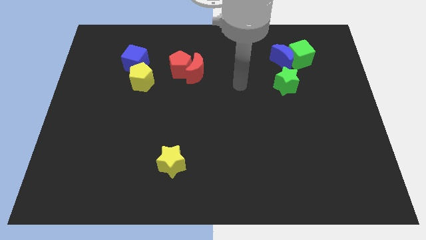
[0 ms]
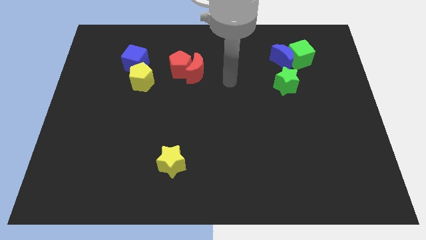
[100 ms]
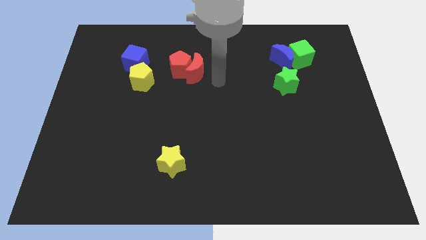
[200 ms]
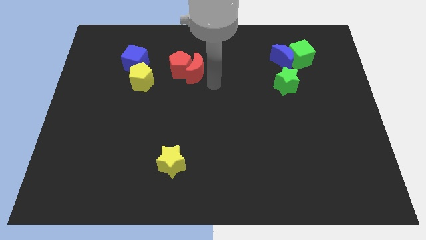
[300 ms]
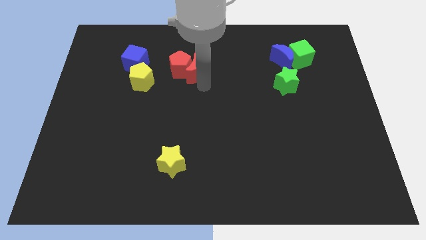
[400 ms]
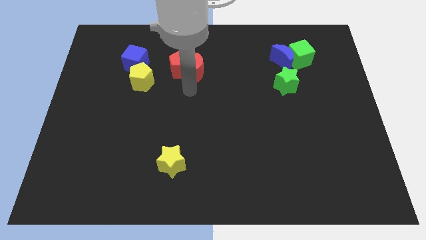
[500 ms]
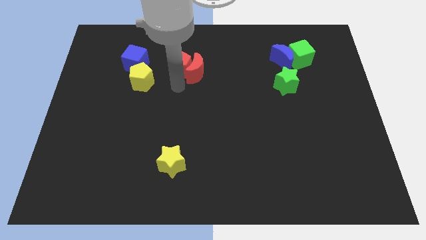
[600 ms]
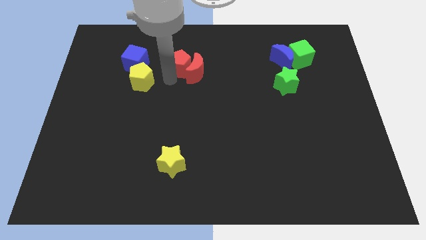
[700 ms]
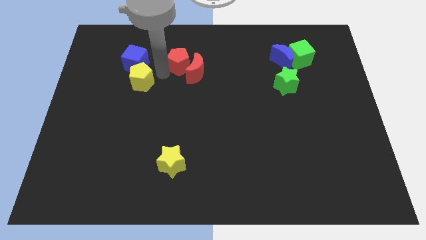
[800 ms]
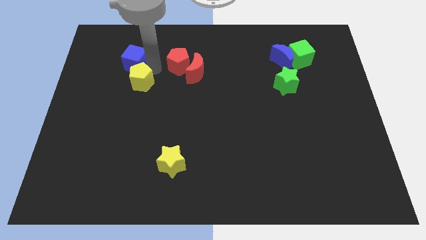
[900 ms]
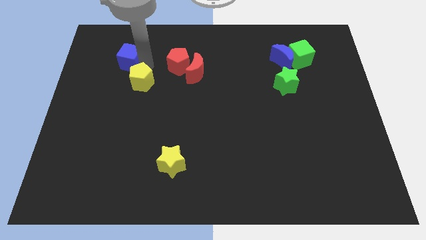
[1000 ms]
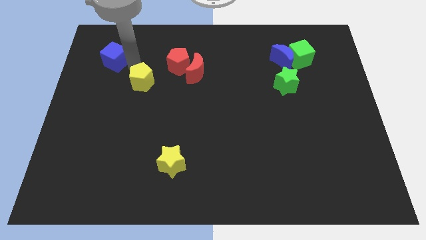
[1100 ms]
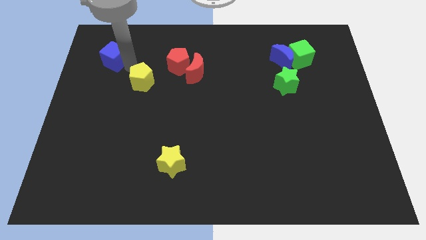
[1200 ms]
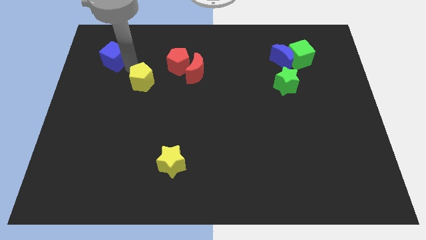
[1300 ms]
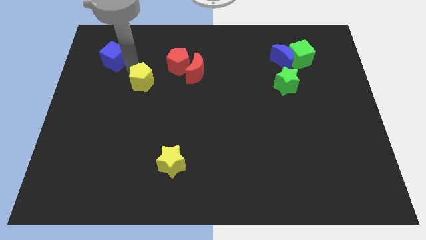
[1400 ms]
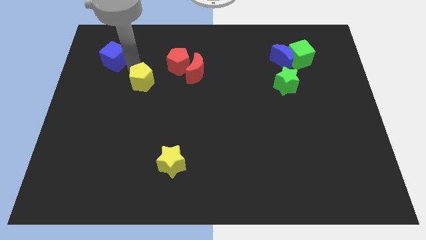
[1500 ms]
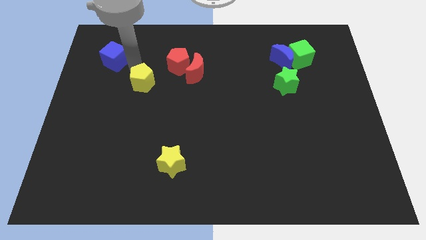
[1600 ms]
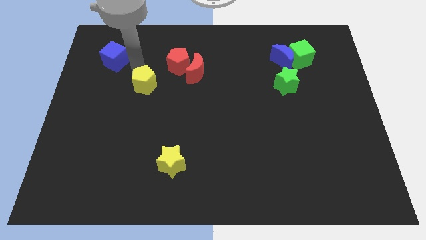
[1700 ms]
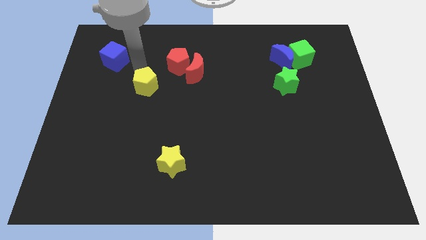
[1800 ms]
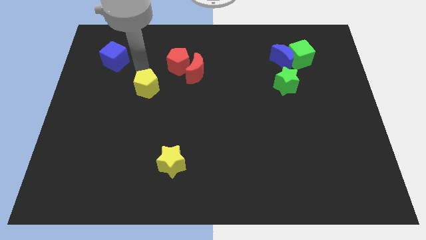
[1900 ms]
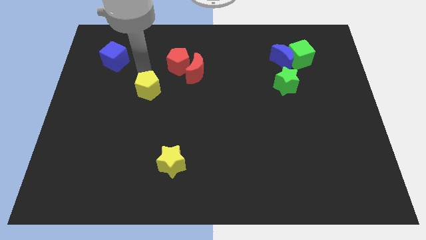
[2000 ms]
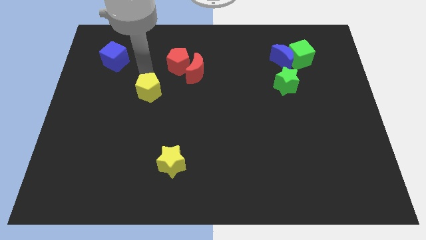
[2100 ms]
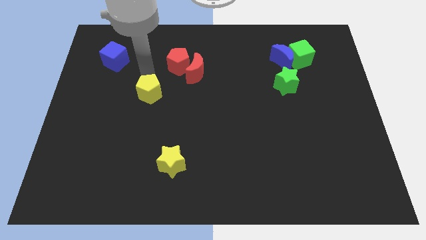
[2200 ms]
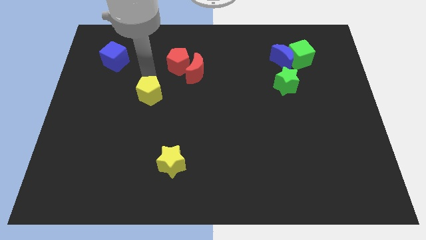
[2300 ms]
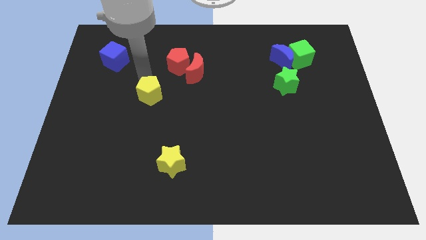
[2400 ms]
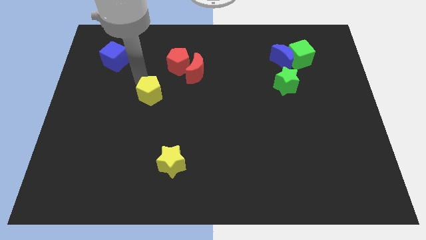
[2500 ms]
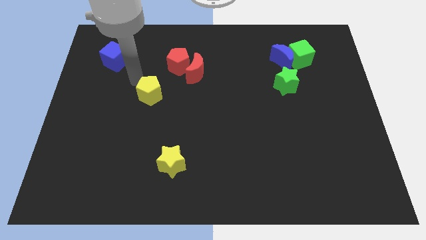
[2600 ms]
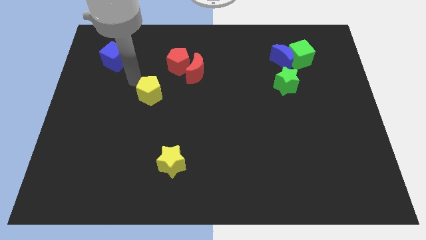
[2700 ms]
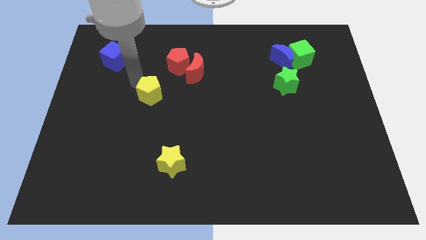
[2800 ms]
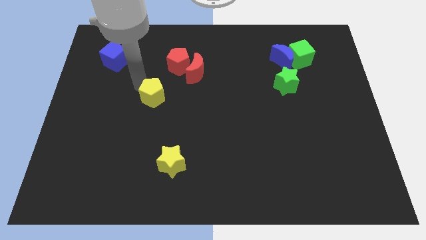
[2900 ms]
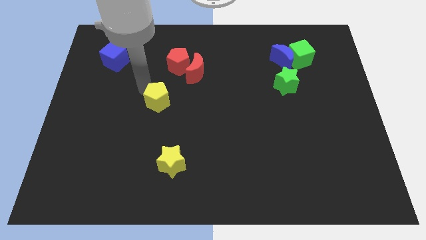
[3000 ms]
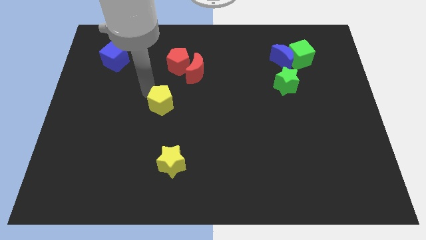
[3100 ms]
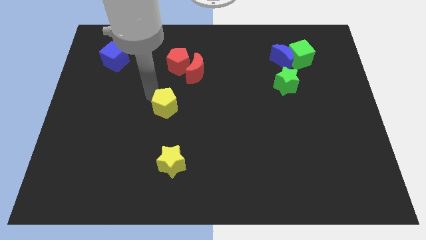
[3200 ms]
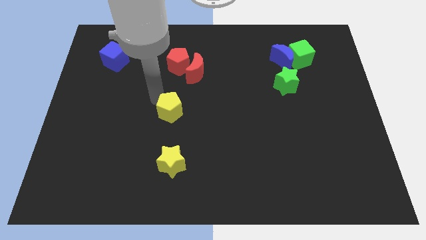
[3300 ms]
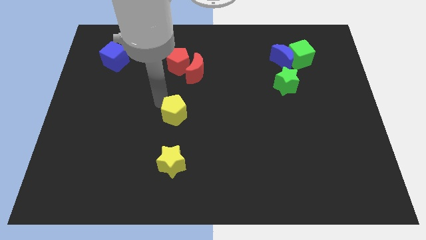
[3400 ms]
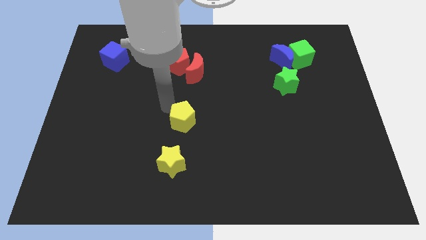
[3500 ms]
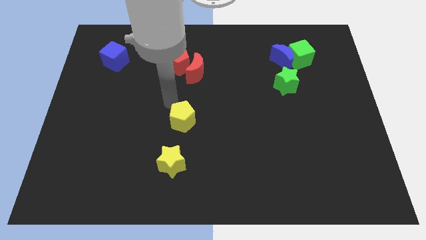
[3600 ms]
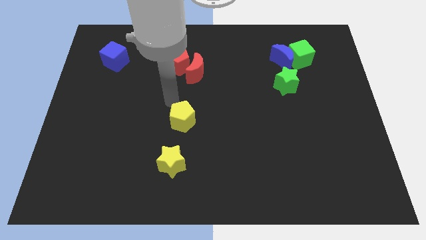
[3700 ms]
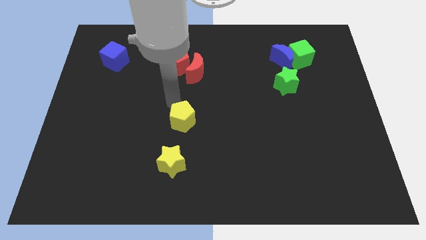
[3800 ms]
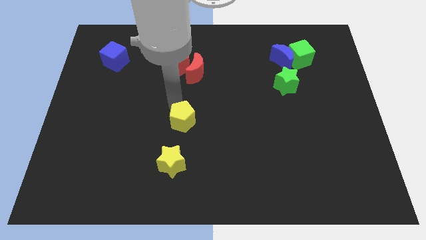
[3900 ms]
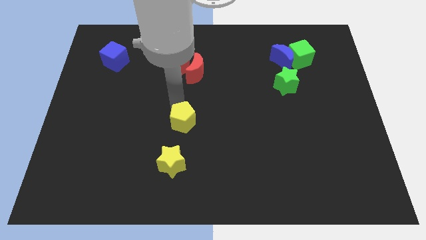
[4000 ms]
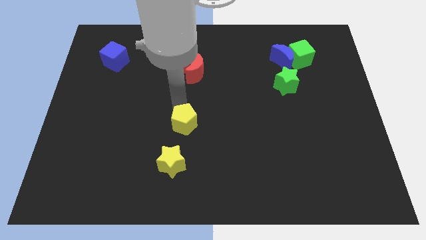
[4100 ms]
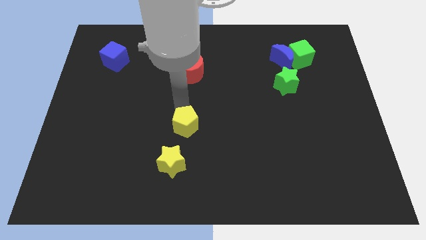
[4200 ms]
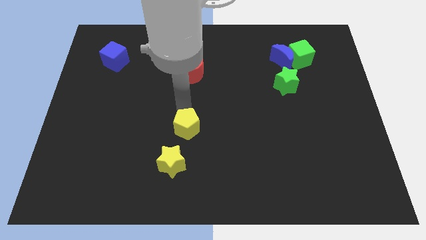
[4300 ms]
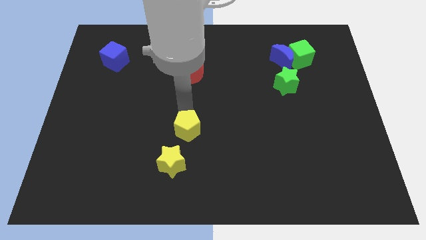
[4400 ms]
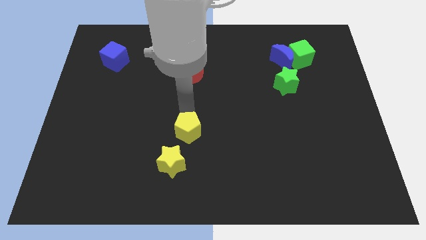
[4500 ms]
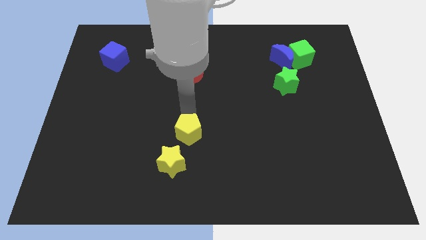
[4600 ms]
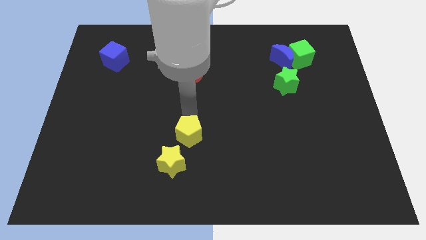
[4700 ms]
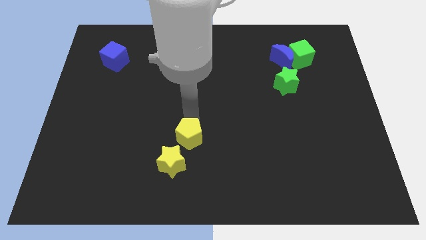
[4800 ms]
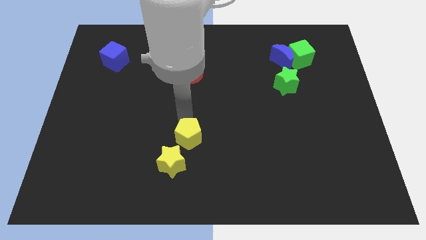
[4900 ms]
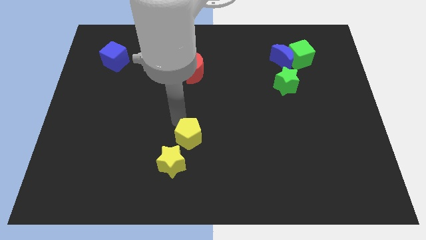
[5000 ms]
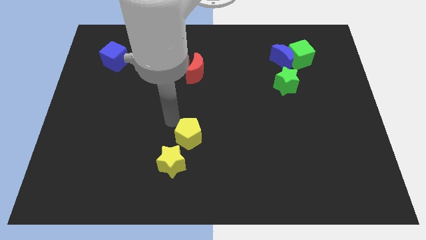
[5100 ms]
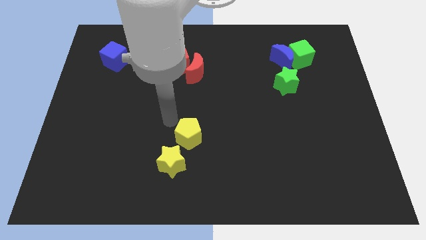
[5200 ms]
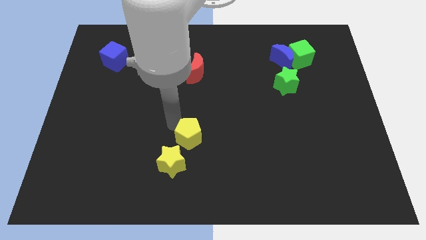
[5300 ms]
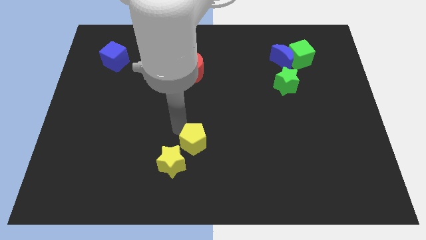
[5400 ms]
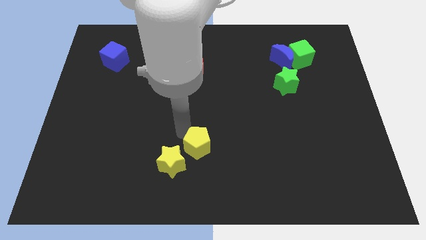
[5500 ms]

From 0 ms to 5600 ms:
move the yellow pentagon to the right side of the yellow star

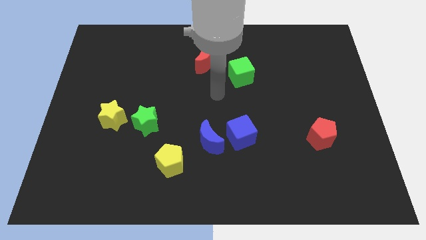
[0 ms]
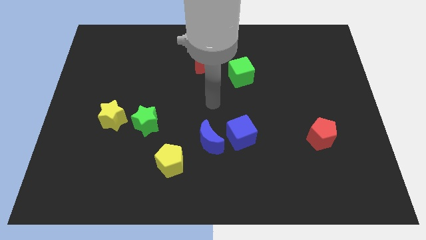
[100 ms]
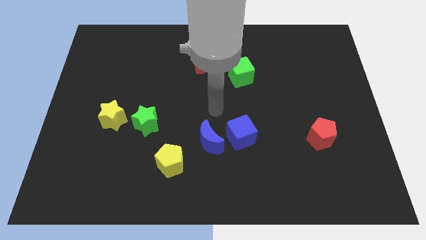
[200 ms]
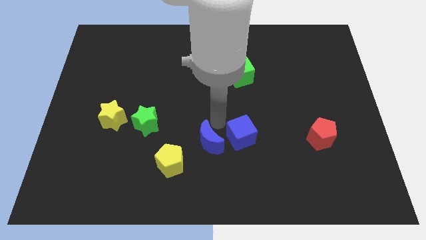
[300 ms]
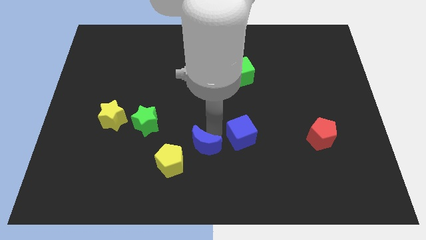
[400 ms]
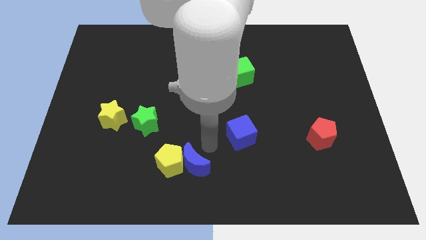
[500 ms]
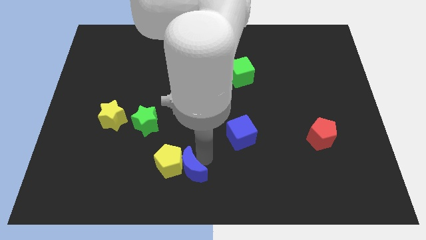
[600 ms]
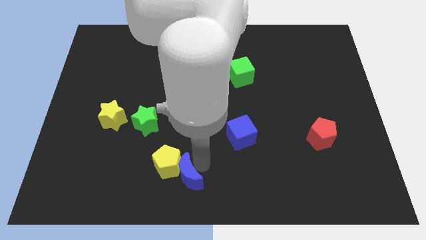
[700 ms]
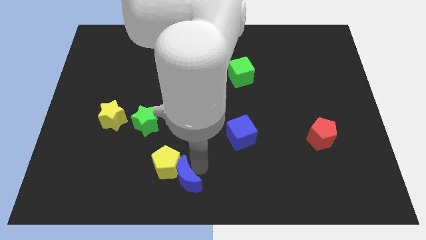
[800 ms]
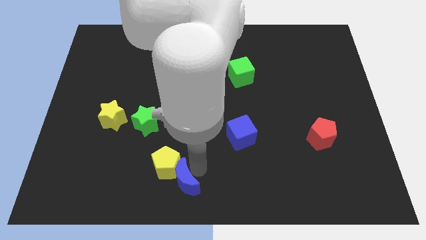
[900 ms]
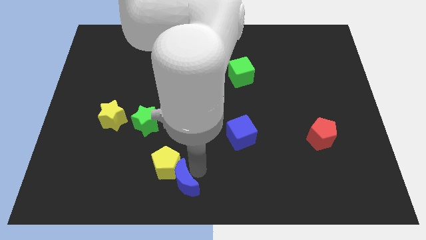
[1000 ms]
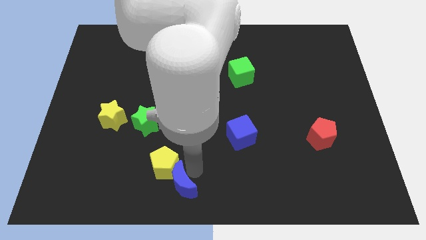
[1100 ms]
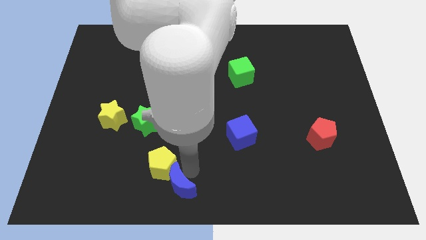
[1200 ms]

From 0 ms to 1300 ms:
slide the yellow pentagon to the bottom side of the green star
